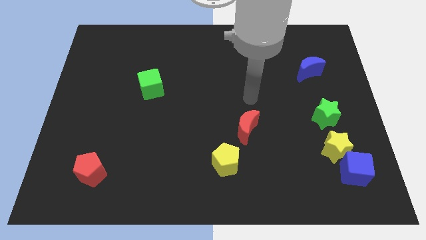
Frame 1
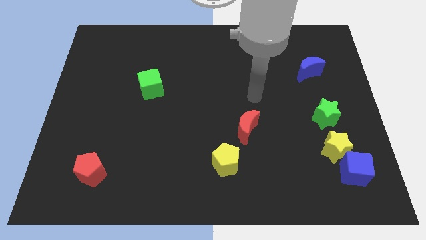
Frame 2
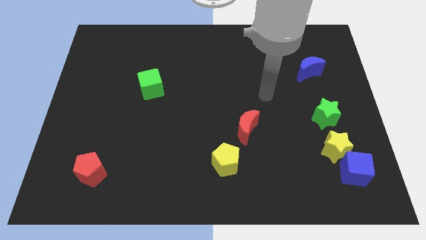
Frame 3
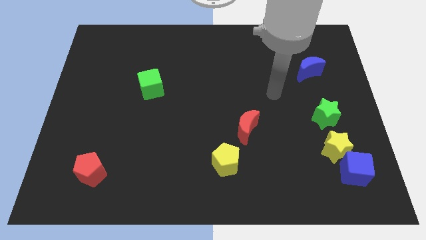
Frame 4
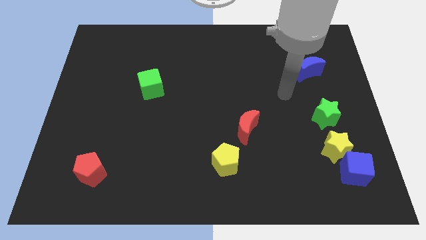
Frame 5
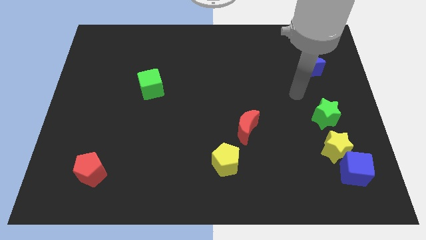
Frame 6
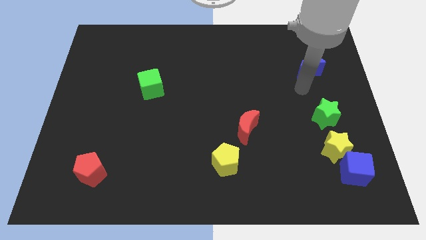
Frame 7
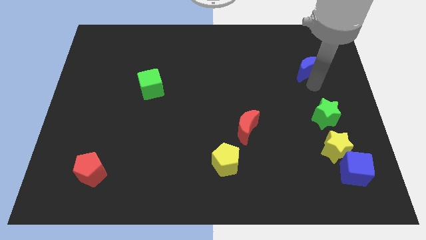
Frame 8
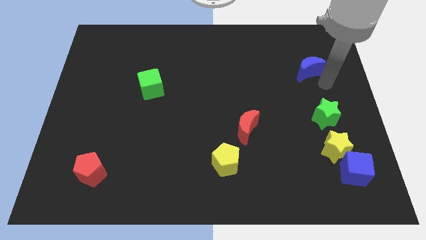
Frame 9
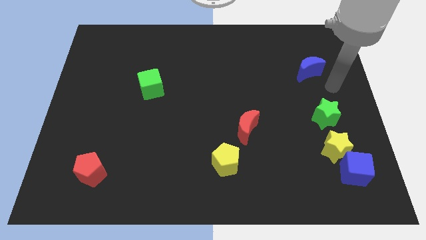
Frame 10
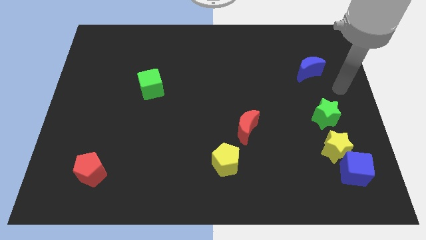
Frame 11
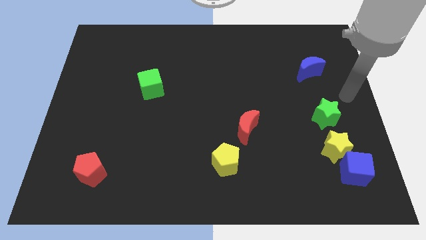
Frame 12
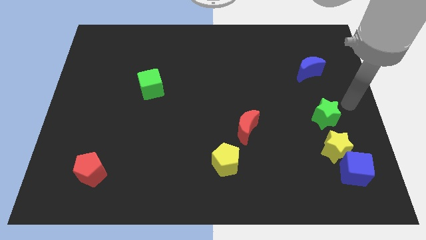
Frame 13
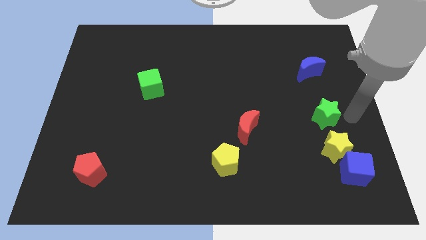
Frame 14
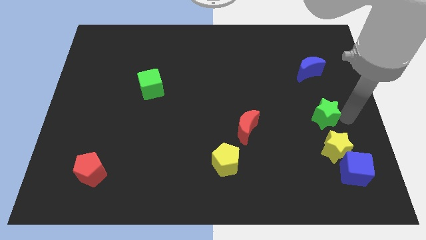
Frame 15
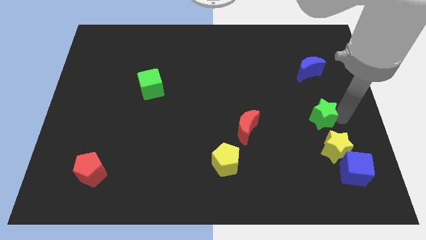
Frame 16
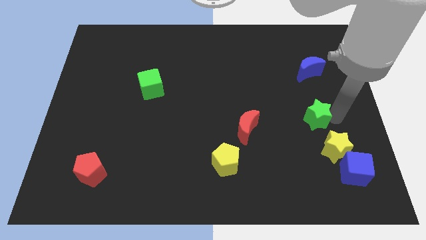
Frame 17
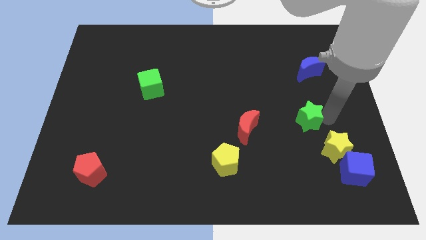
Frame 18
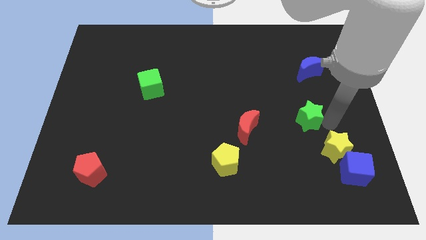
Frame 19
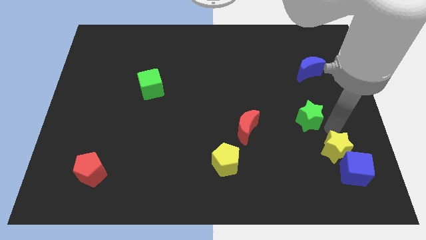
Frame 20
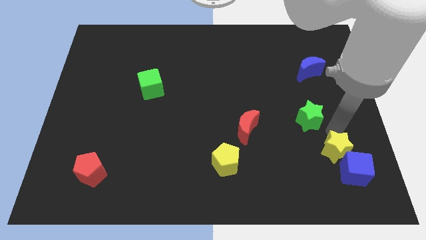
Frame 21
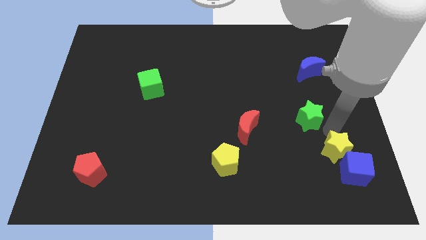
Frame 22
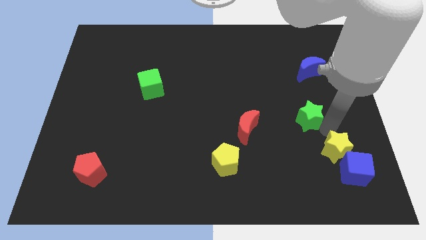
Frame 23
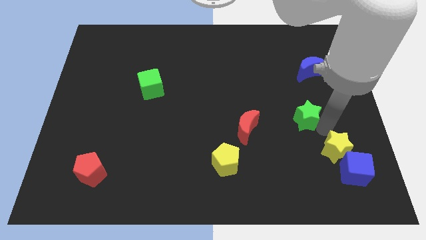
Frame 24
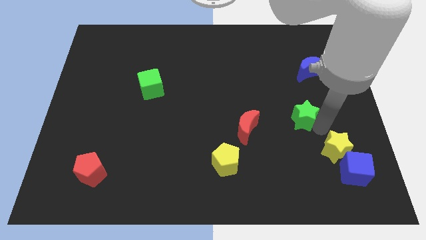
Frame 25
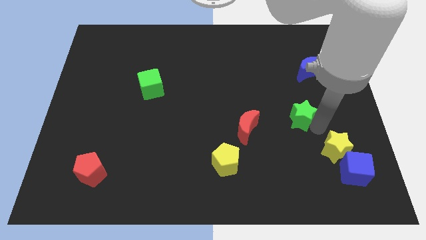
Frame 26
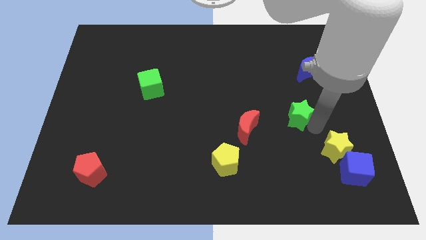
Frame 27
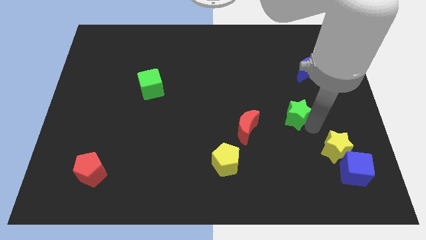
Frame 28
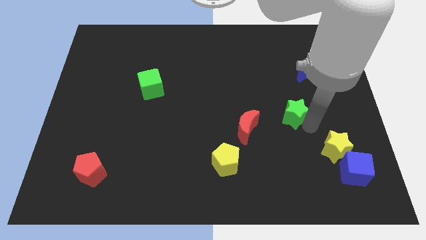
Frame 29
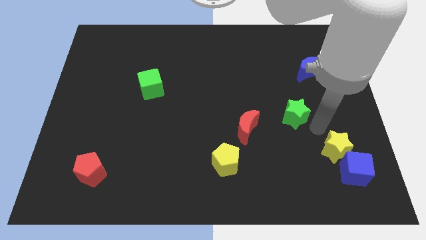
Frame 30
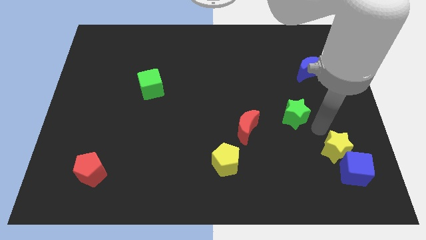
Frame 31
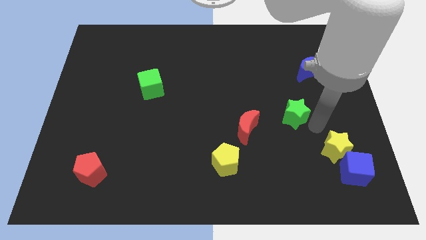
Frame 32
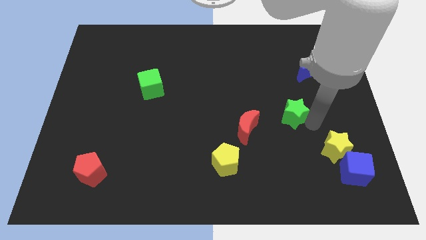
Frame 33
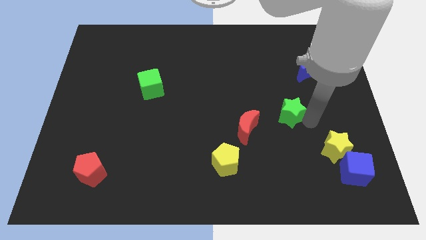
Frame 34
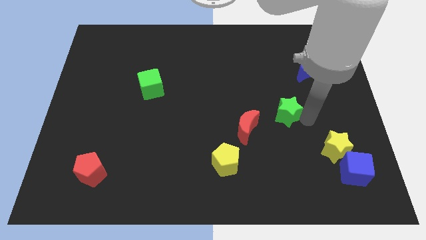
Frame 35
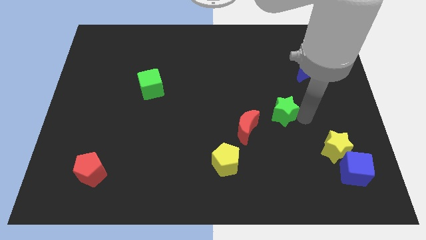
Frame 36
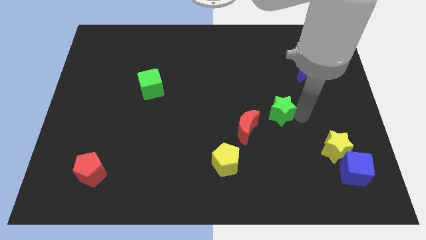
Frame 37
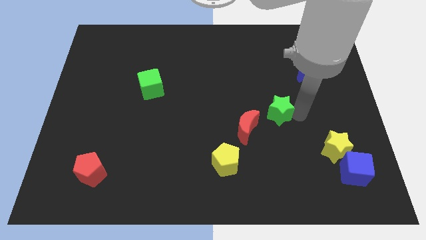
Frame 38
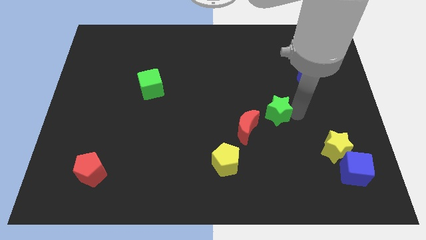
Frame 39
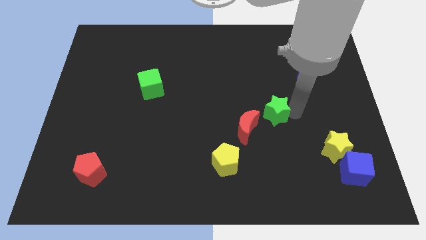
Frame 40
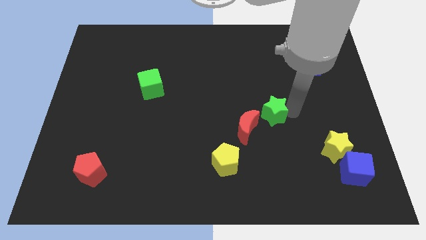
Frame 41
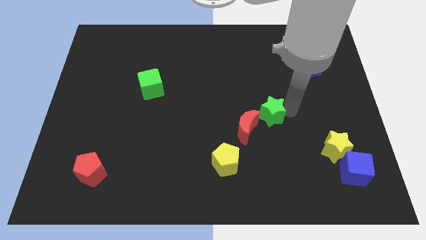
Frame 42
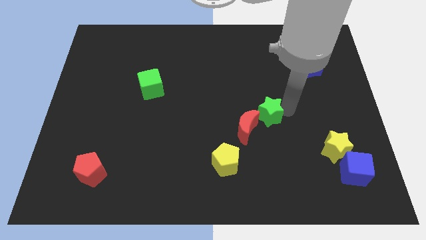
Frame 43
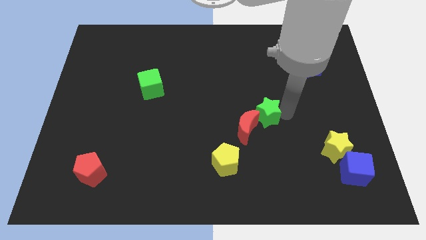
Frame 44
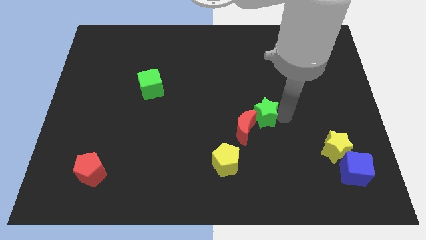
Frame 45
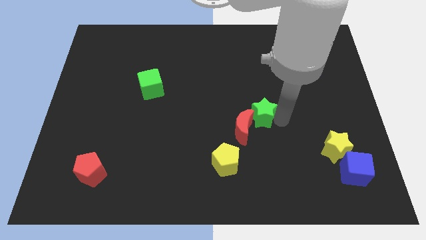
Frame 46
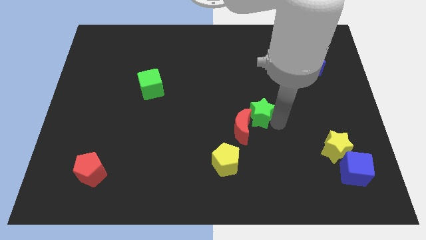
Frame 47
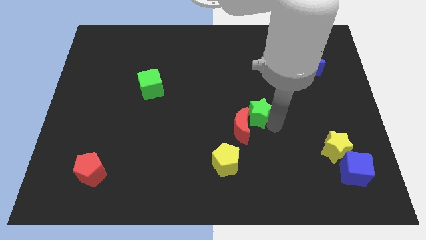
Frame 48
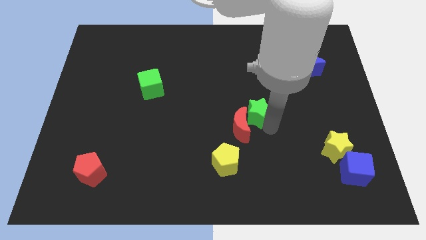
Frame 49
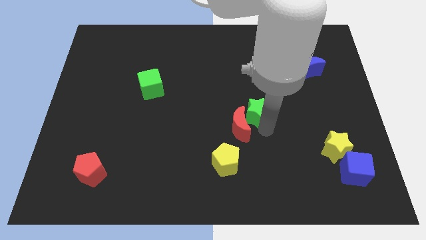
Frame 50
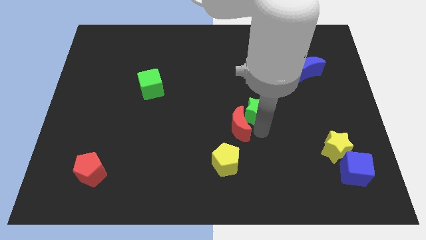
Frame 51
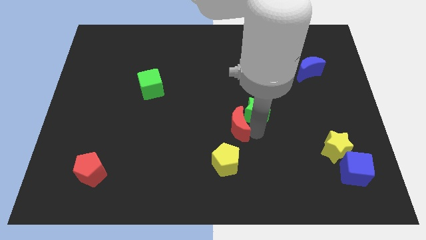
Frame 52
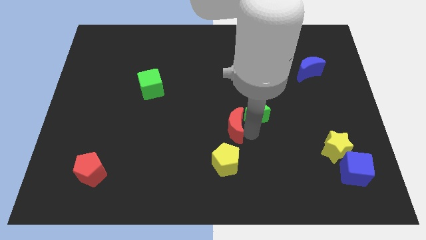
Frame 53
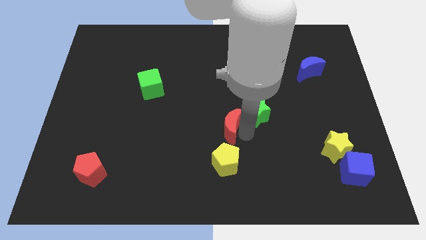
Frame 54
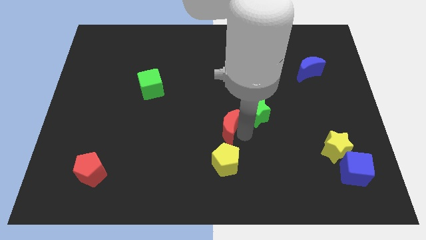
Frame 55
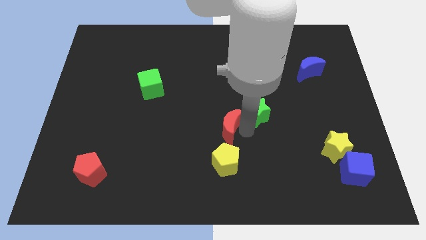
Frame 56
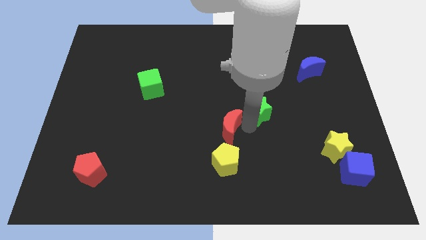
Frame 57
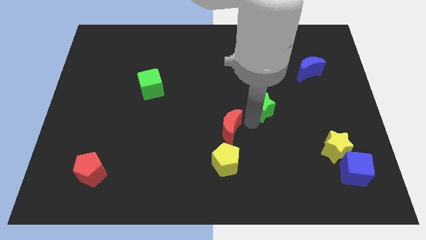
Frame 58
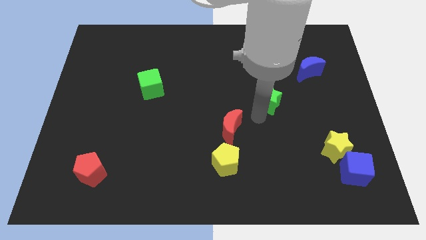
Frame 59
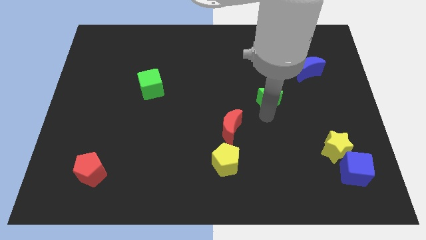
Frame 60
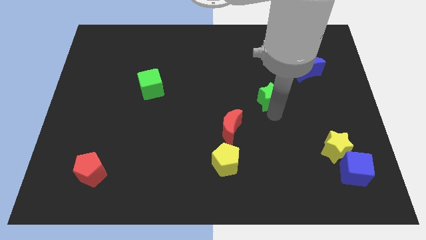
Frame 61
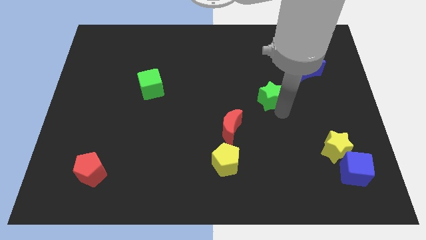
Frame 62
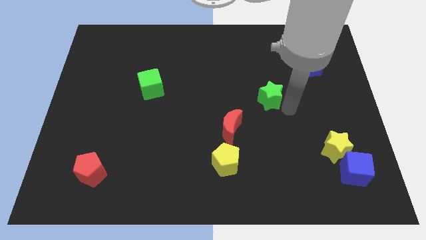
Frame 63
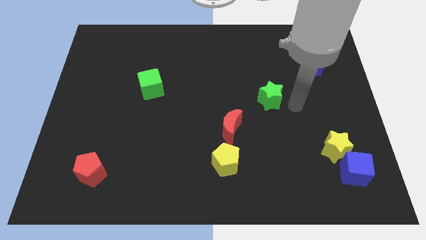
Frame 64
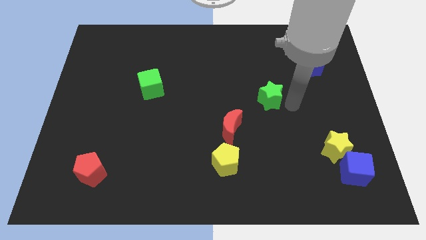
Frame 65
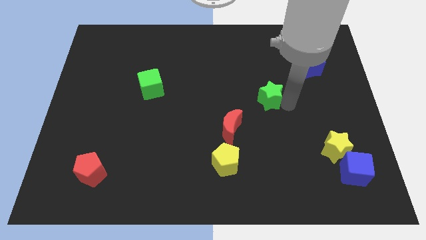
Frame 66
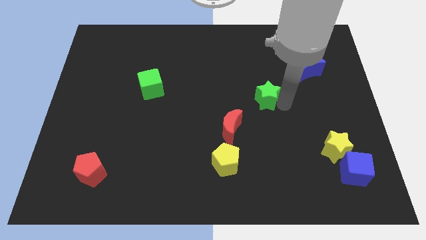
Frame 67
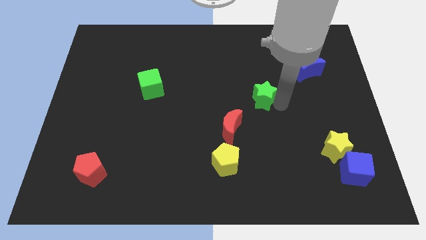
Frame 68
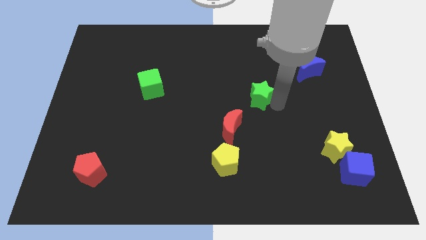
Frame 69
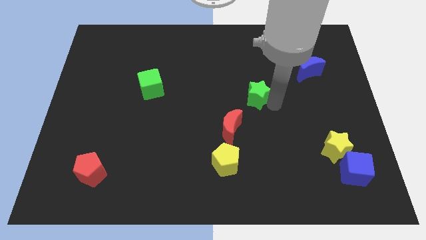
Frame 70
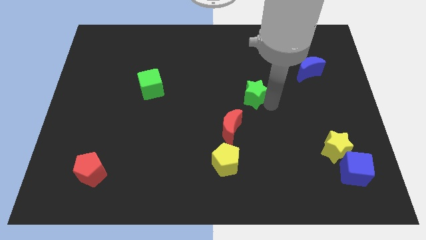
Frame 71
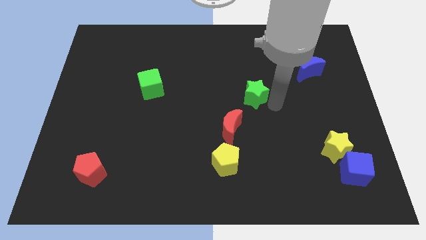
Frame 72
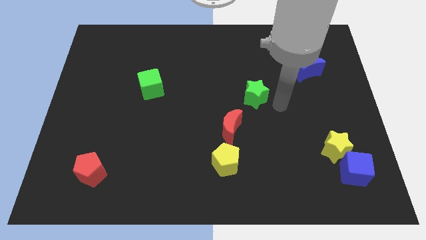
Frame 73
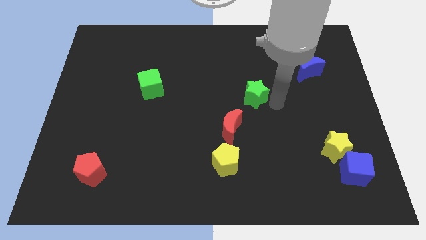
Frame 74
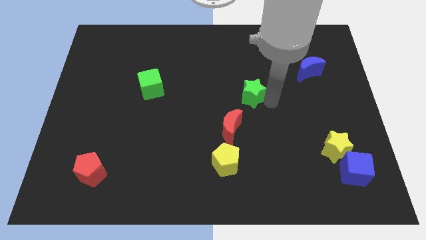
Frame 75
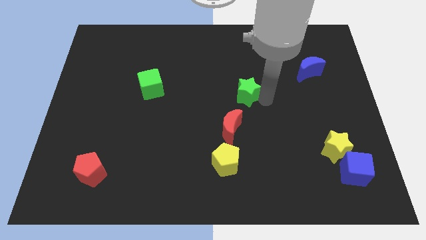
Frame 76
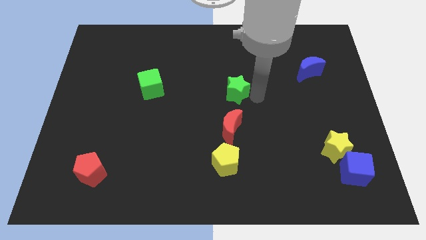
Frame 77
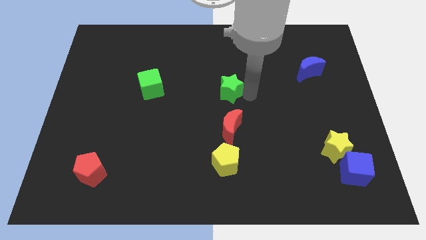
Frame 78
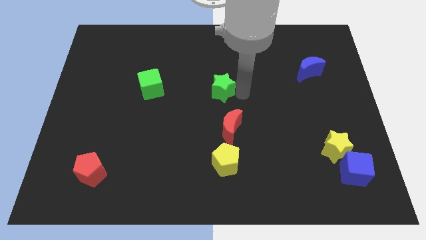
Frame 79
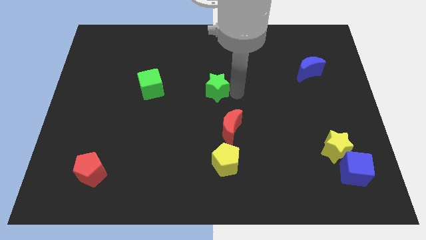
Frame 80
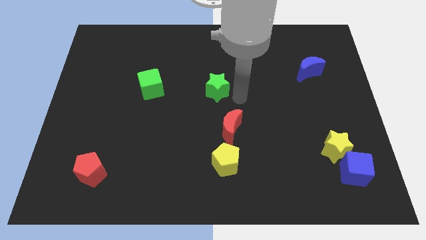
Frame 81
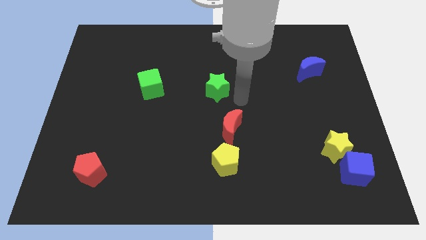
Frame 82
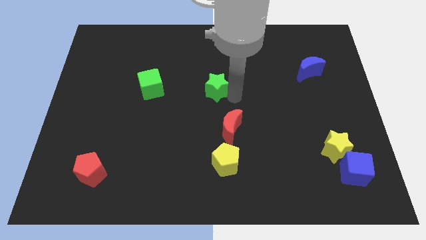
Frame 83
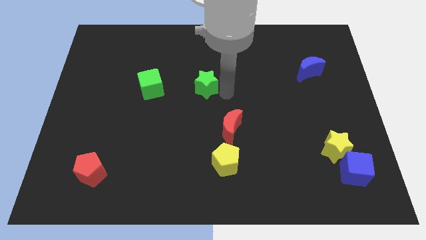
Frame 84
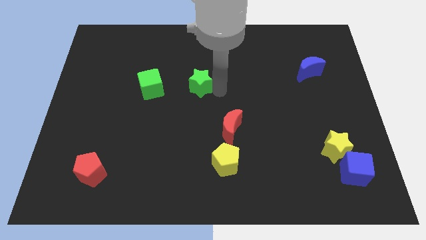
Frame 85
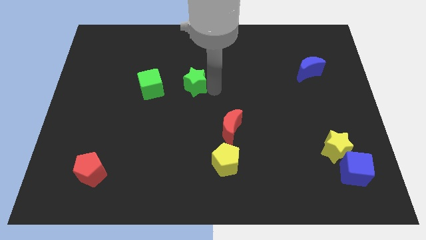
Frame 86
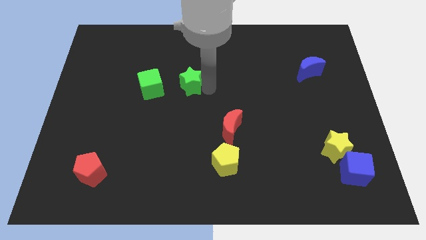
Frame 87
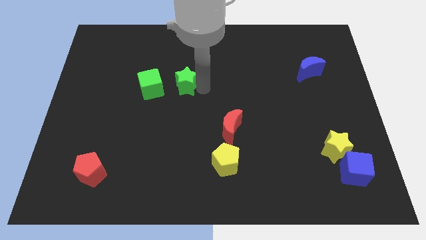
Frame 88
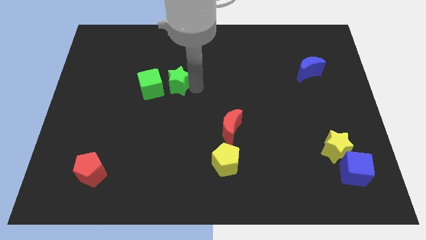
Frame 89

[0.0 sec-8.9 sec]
put the green star to the top right of the green cube
